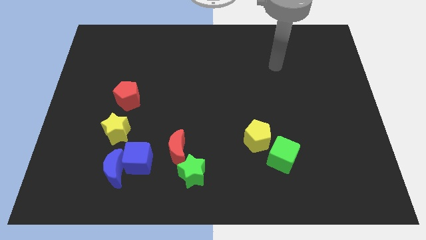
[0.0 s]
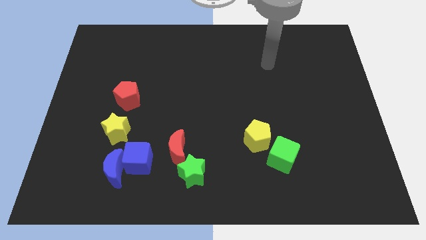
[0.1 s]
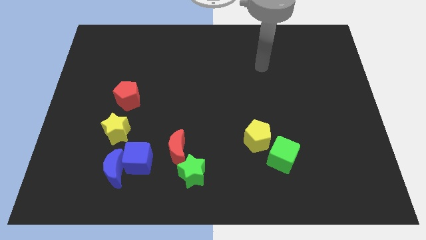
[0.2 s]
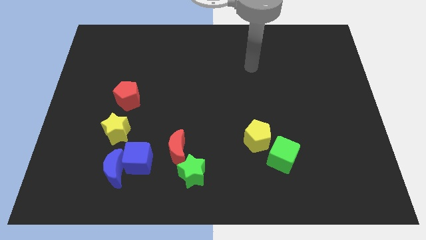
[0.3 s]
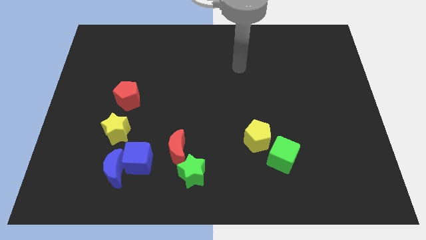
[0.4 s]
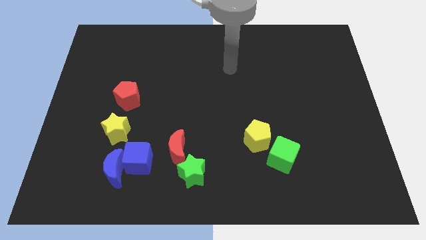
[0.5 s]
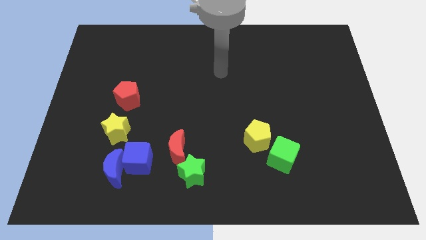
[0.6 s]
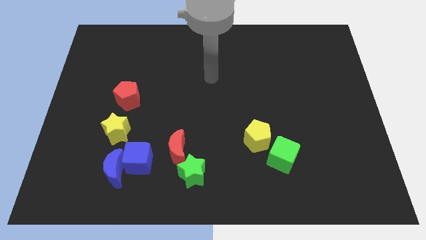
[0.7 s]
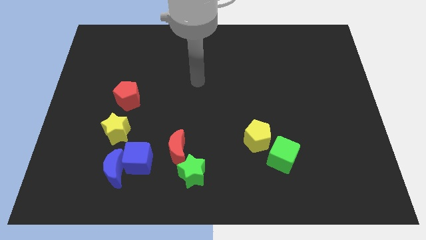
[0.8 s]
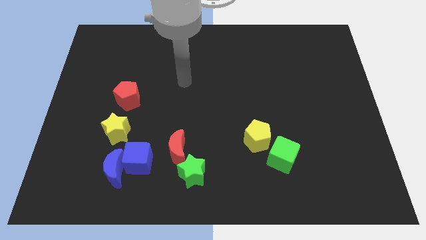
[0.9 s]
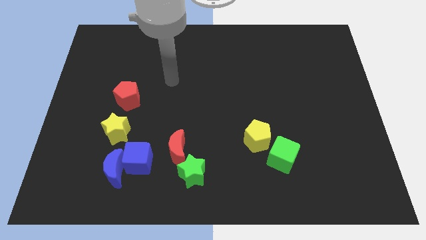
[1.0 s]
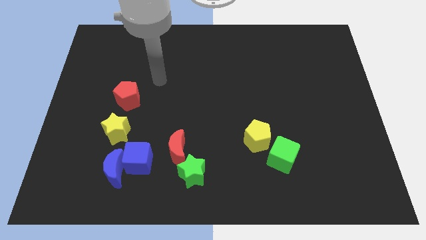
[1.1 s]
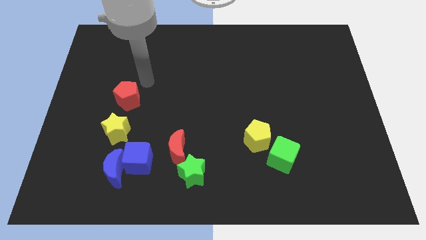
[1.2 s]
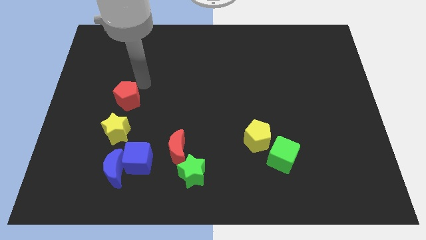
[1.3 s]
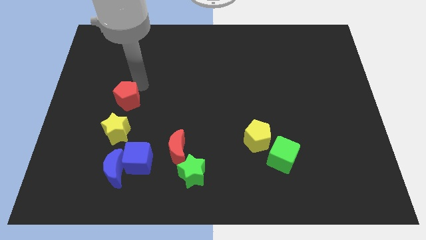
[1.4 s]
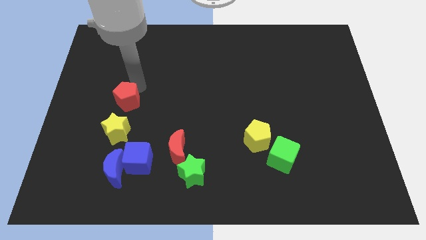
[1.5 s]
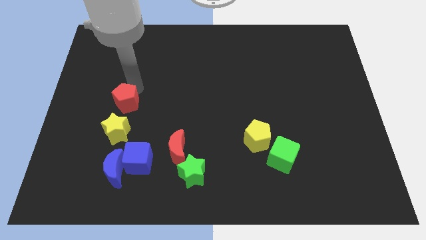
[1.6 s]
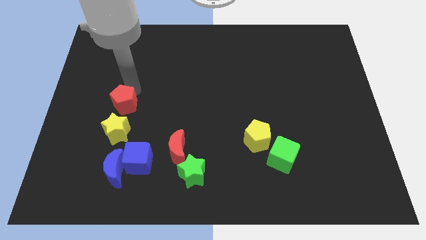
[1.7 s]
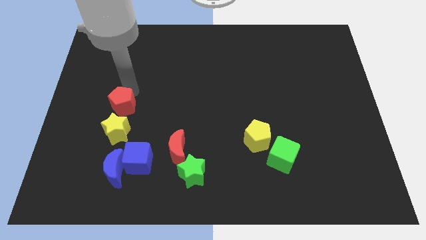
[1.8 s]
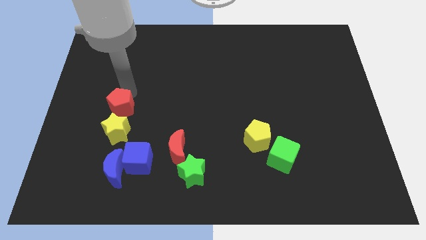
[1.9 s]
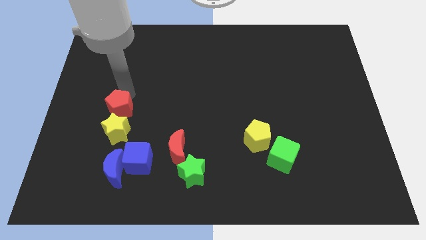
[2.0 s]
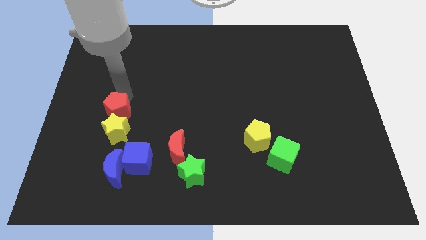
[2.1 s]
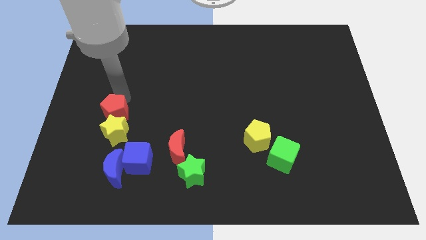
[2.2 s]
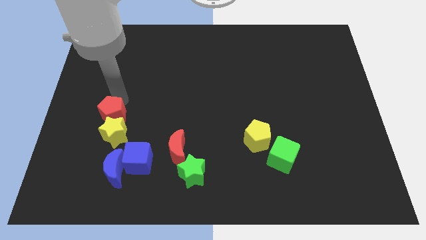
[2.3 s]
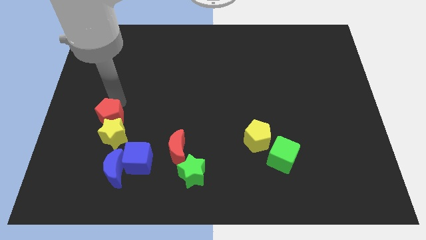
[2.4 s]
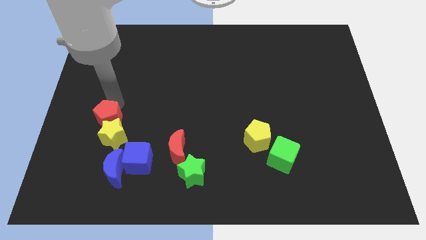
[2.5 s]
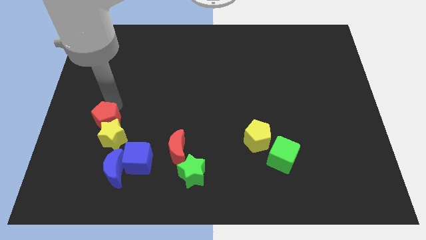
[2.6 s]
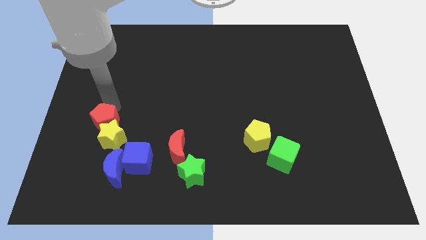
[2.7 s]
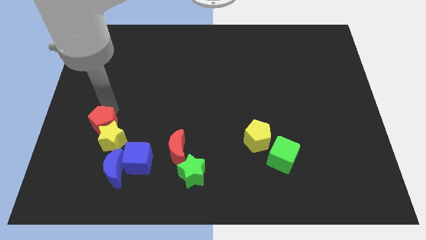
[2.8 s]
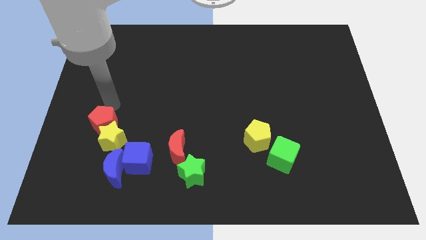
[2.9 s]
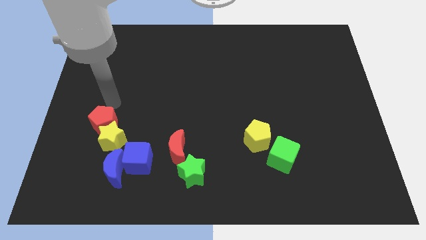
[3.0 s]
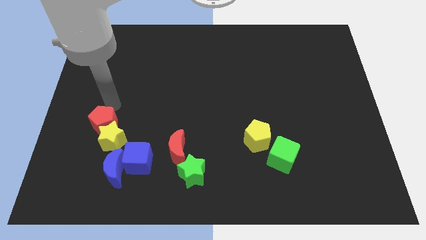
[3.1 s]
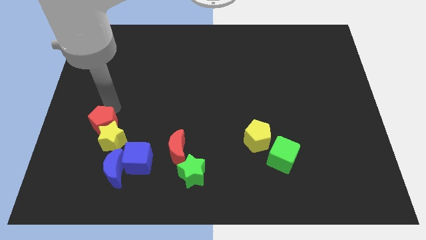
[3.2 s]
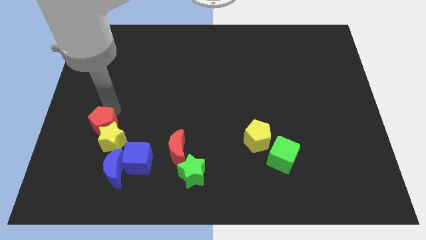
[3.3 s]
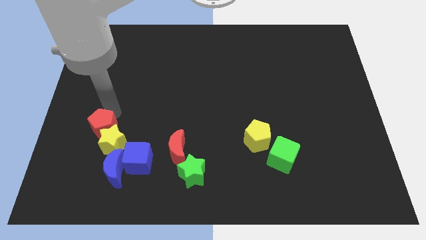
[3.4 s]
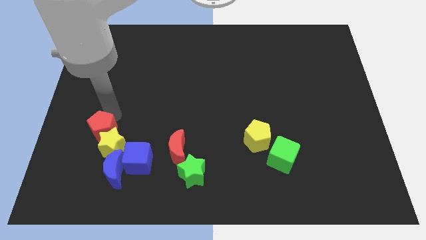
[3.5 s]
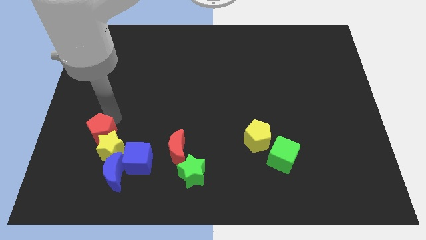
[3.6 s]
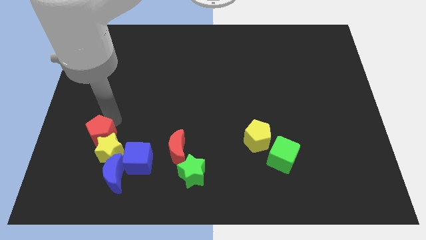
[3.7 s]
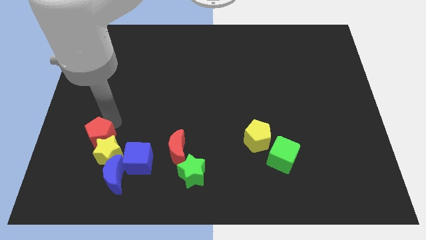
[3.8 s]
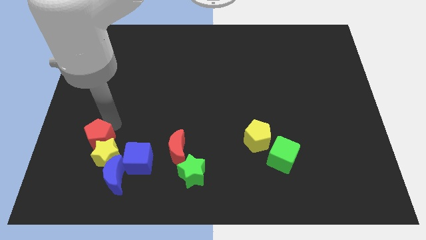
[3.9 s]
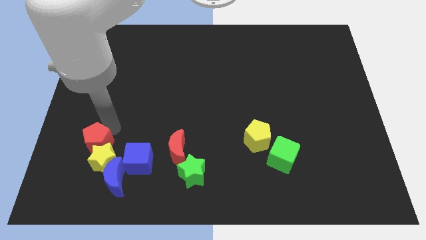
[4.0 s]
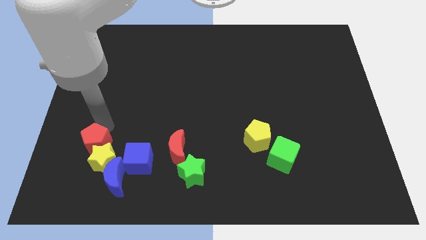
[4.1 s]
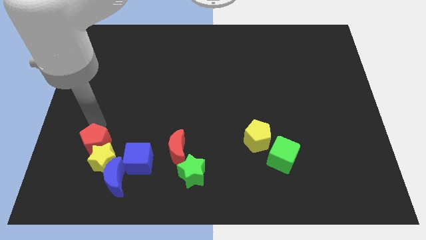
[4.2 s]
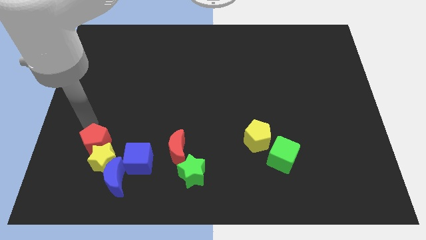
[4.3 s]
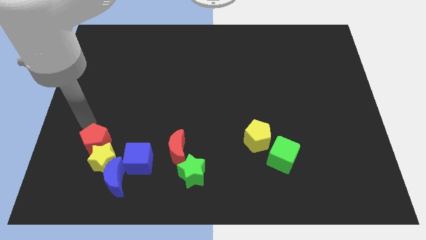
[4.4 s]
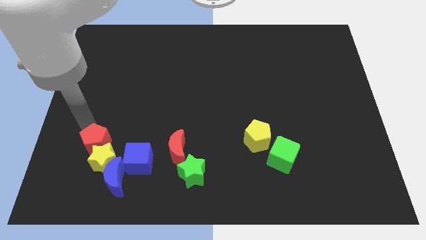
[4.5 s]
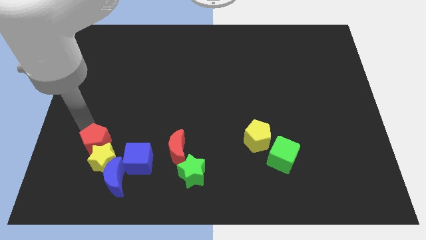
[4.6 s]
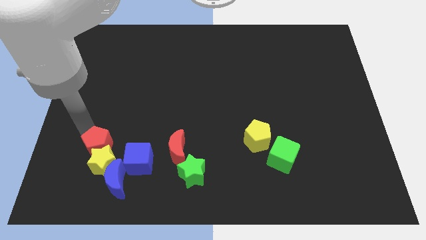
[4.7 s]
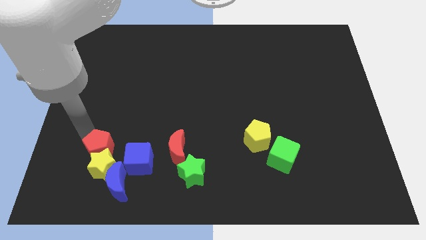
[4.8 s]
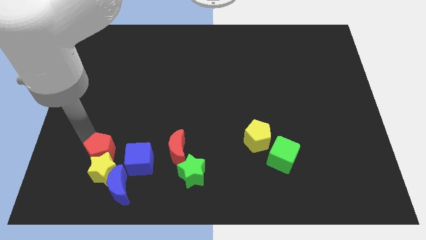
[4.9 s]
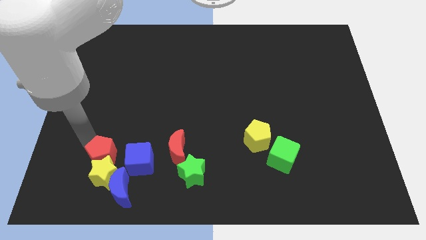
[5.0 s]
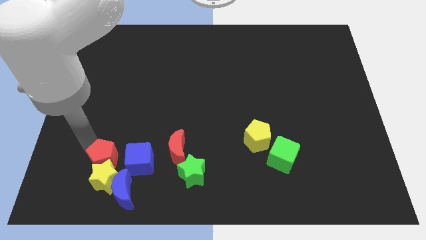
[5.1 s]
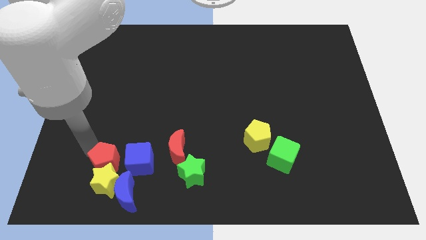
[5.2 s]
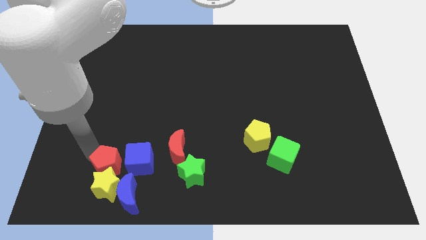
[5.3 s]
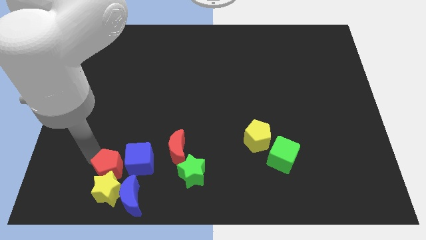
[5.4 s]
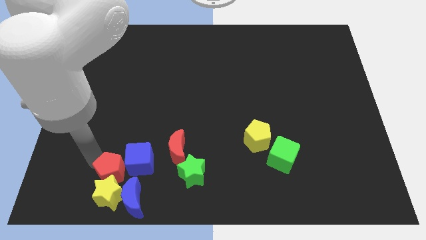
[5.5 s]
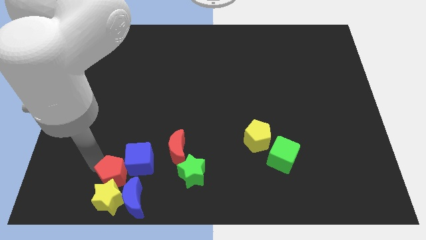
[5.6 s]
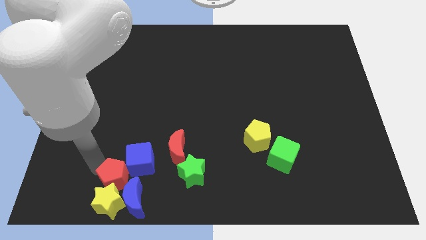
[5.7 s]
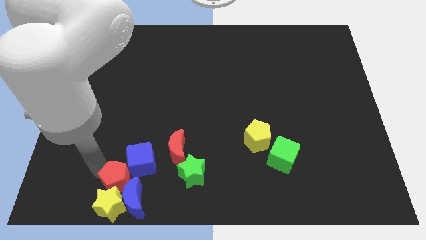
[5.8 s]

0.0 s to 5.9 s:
push the red pentagon to the blue moon

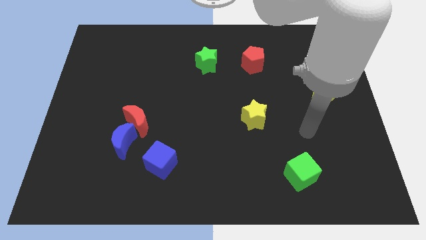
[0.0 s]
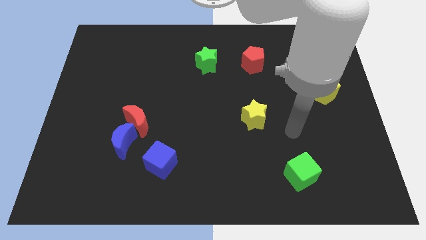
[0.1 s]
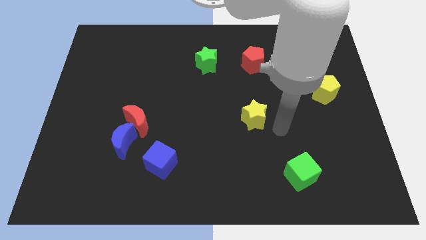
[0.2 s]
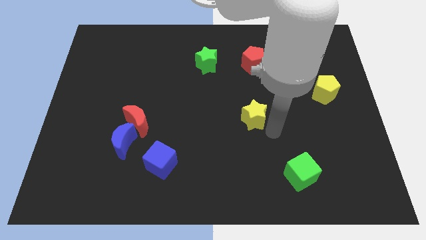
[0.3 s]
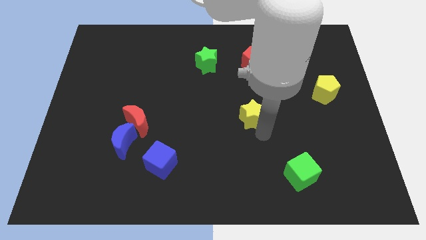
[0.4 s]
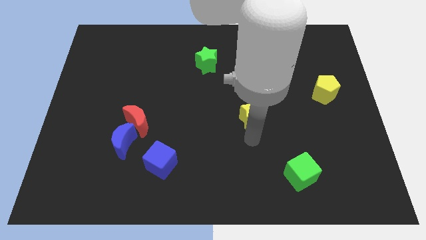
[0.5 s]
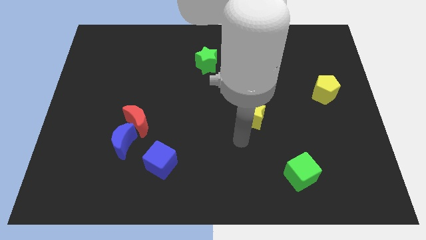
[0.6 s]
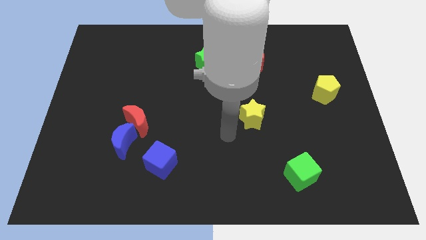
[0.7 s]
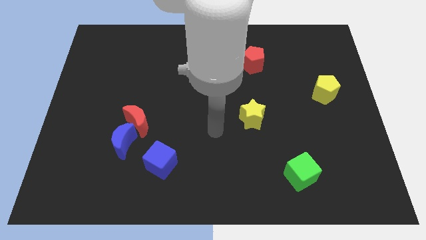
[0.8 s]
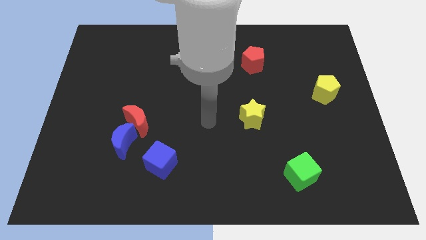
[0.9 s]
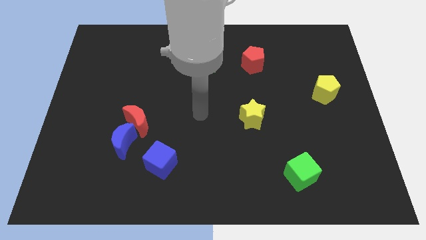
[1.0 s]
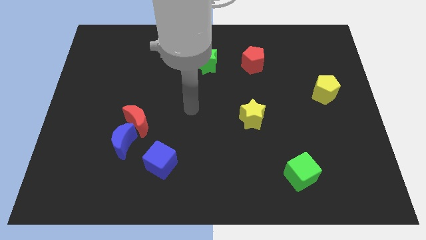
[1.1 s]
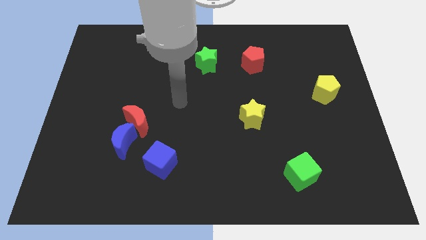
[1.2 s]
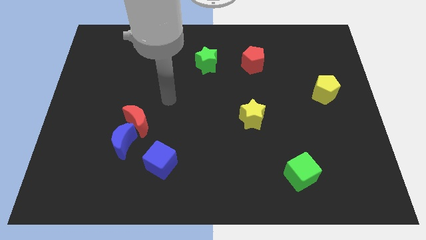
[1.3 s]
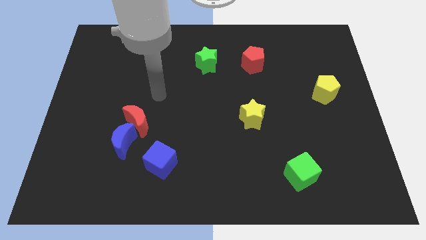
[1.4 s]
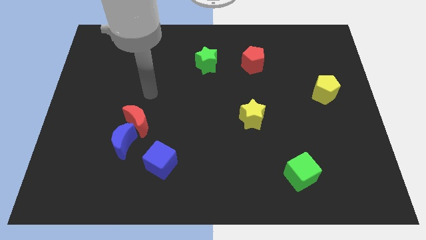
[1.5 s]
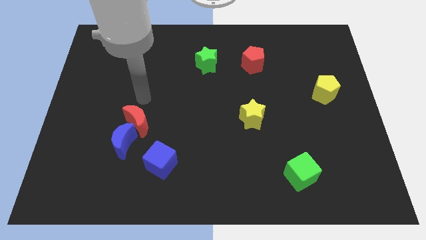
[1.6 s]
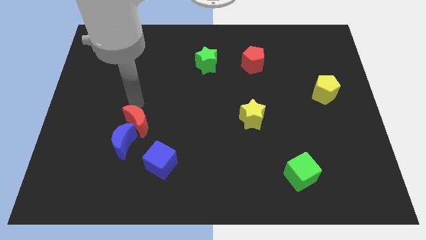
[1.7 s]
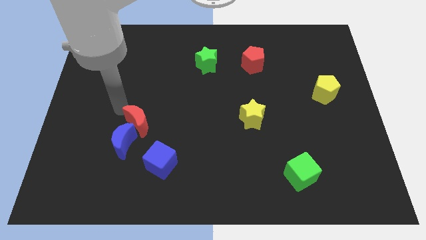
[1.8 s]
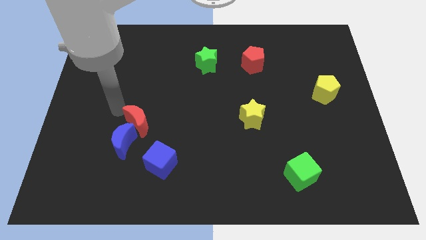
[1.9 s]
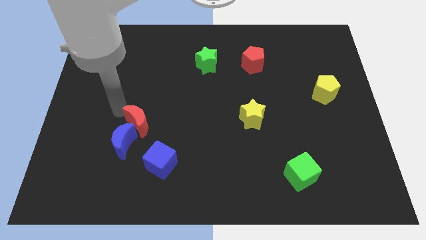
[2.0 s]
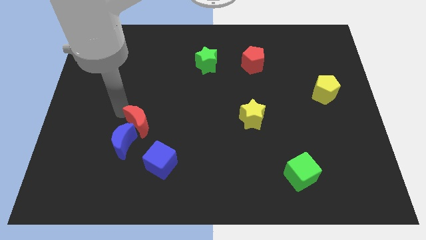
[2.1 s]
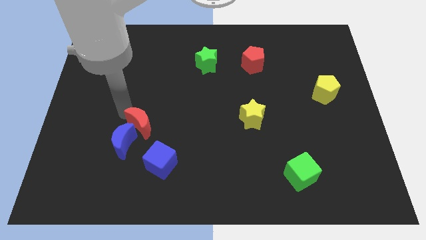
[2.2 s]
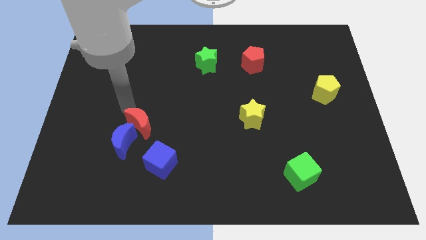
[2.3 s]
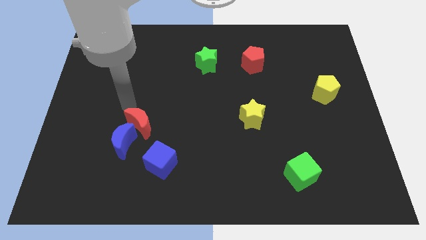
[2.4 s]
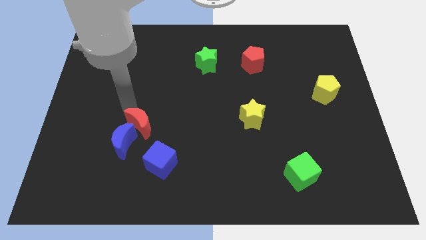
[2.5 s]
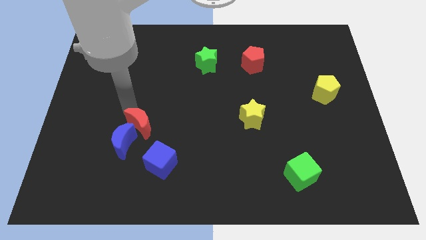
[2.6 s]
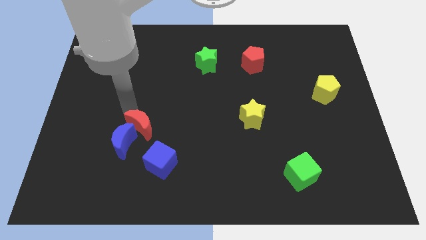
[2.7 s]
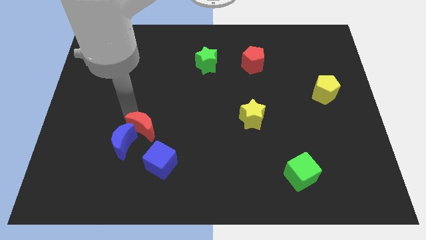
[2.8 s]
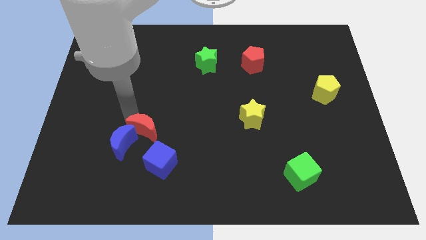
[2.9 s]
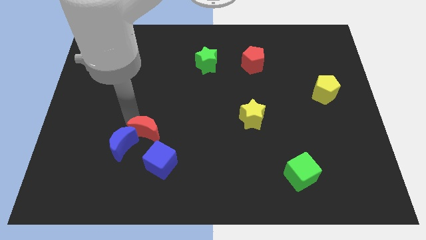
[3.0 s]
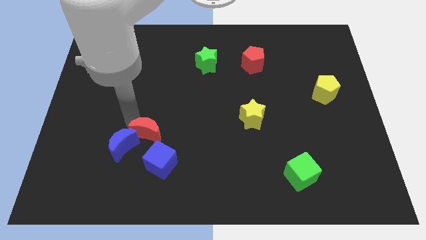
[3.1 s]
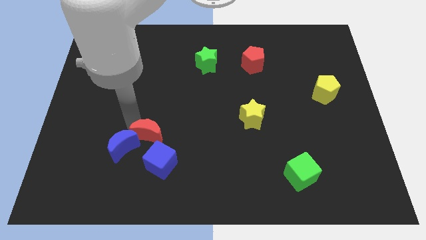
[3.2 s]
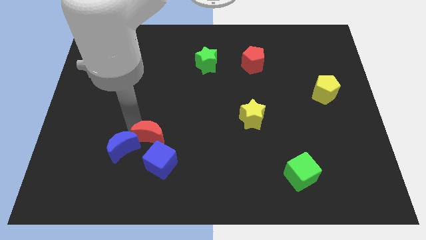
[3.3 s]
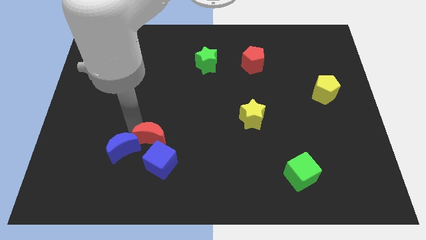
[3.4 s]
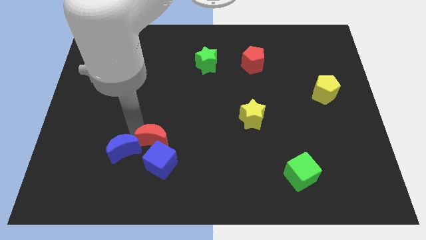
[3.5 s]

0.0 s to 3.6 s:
move the red moon next to the blue cube
